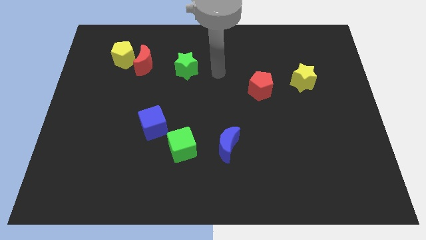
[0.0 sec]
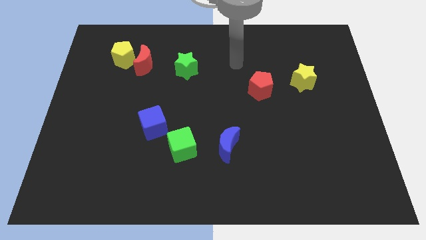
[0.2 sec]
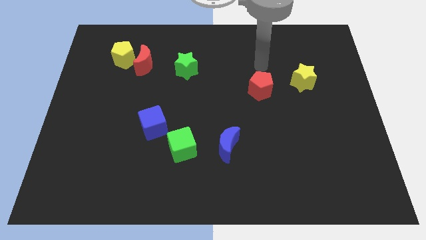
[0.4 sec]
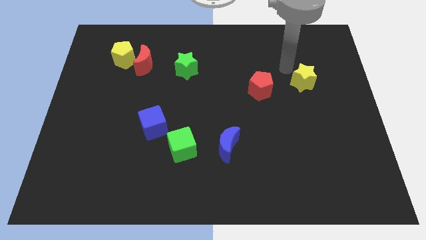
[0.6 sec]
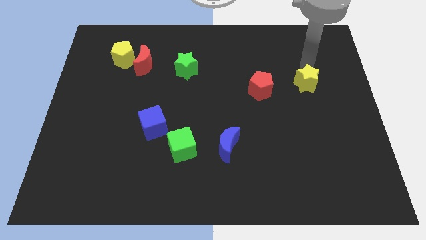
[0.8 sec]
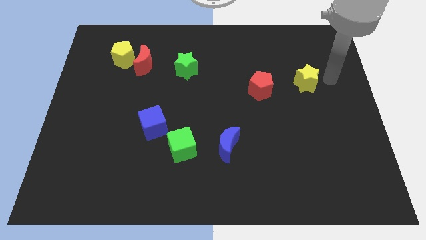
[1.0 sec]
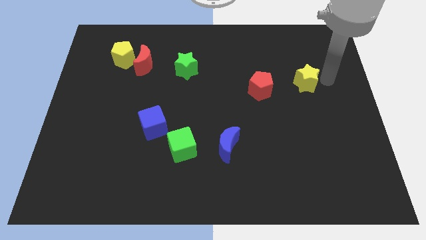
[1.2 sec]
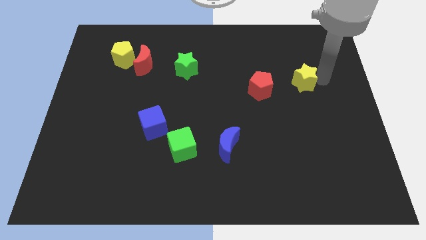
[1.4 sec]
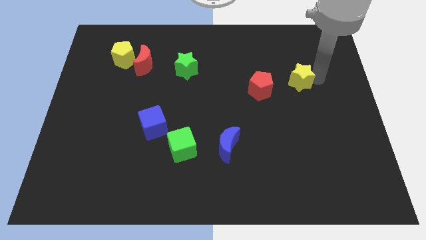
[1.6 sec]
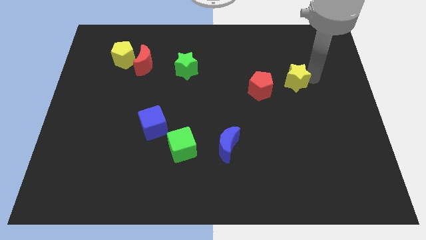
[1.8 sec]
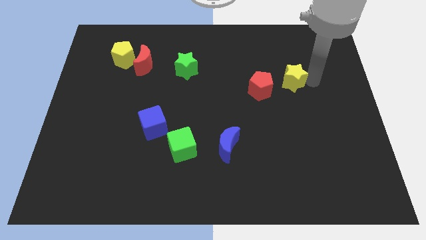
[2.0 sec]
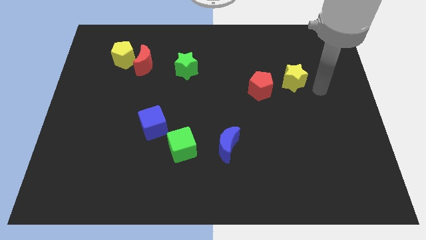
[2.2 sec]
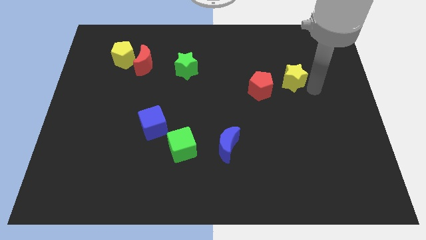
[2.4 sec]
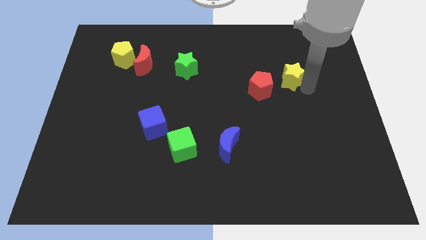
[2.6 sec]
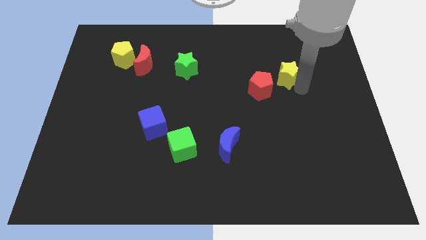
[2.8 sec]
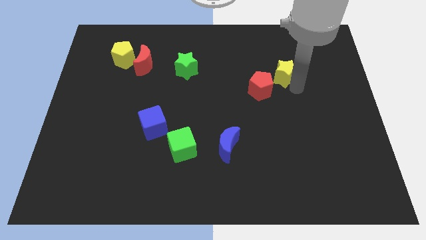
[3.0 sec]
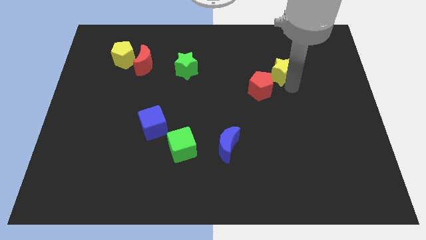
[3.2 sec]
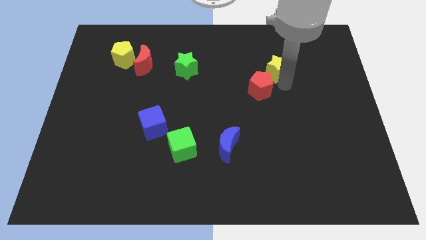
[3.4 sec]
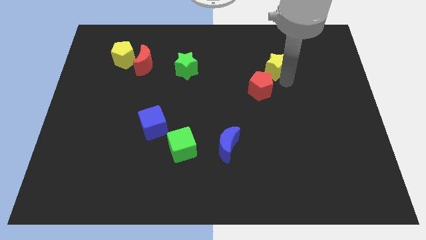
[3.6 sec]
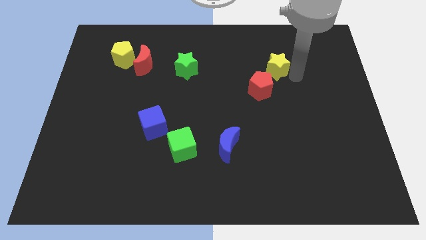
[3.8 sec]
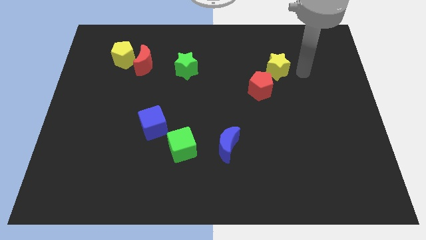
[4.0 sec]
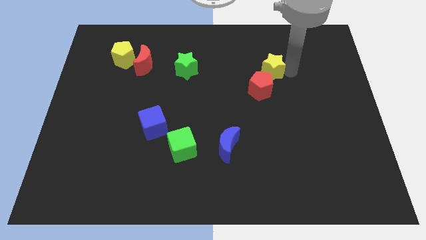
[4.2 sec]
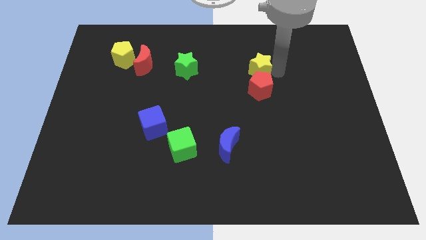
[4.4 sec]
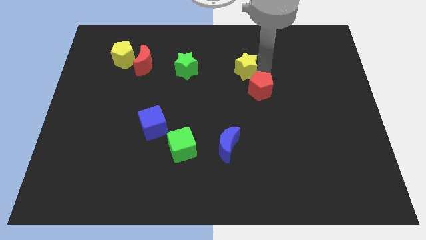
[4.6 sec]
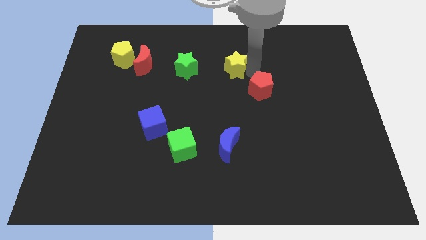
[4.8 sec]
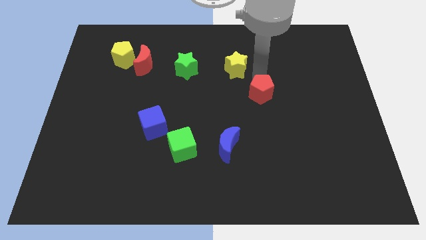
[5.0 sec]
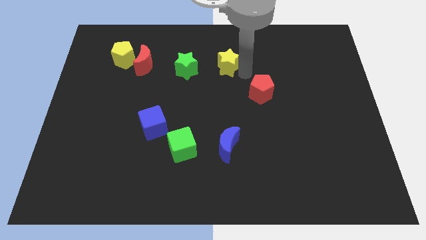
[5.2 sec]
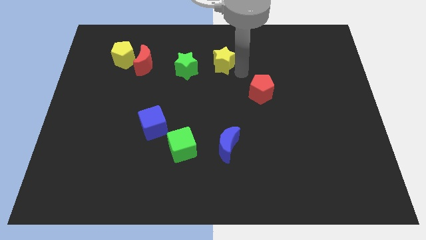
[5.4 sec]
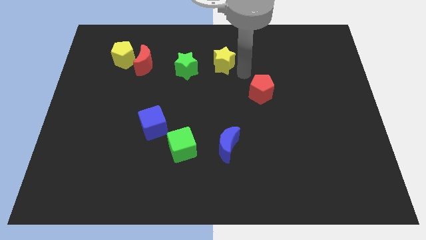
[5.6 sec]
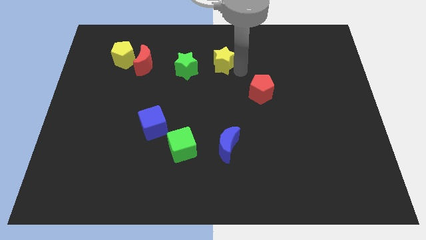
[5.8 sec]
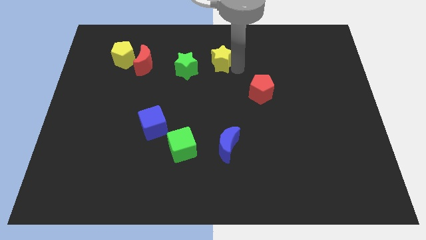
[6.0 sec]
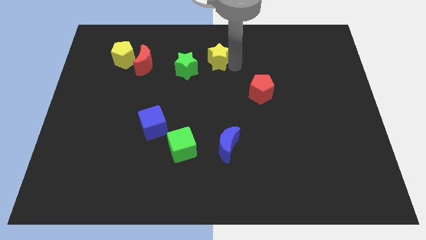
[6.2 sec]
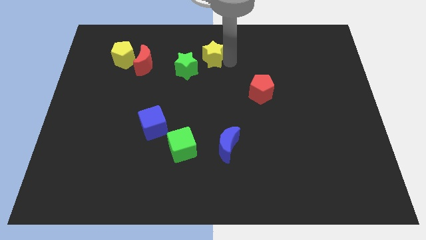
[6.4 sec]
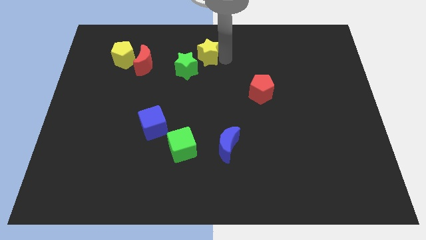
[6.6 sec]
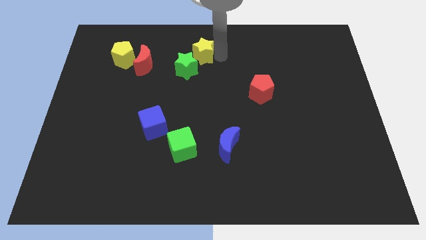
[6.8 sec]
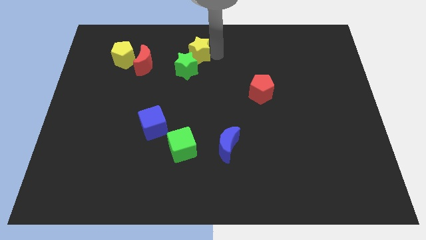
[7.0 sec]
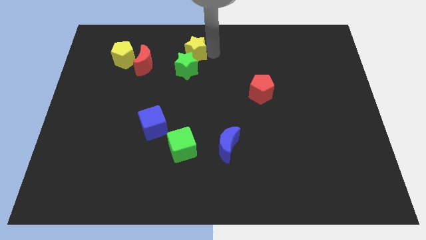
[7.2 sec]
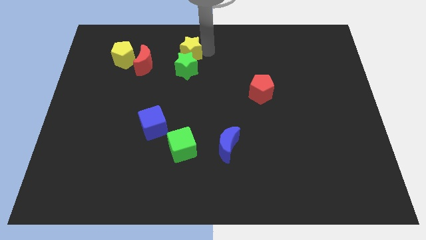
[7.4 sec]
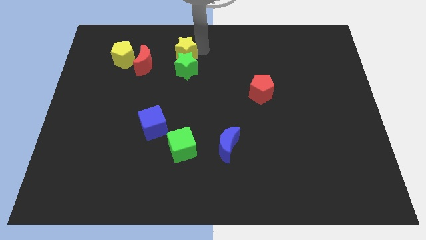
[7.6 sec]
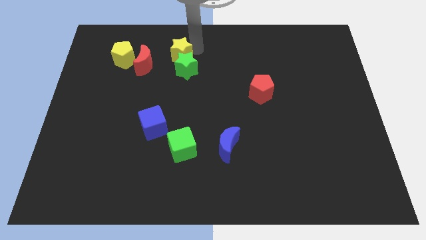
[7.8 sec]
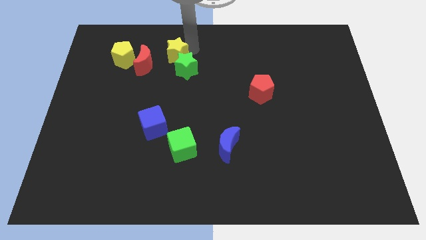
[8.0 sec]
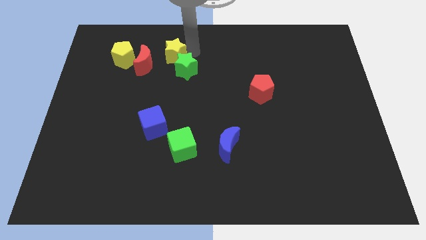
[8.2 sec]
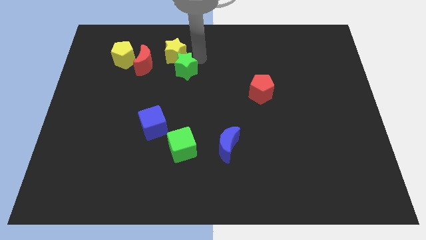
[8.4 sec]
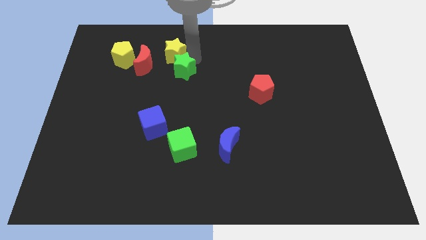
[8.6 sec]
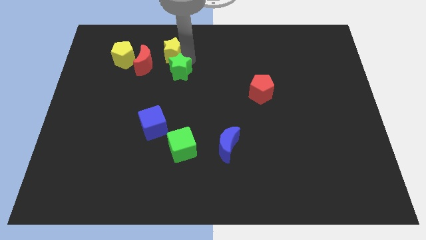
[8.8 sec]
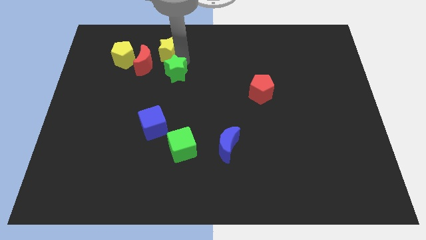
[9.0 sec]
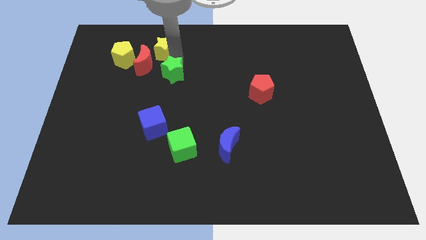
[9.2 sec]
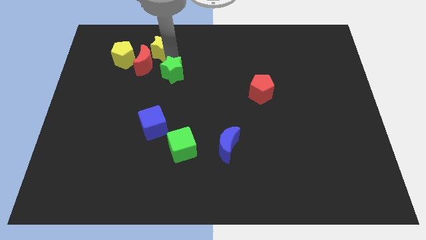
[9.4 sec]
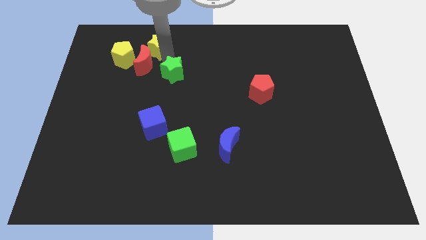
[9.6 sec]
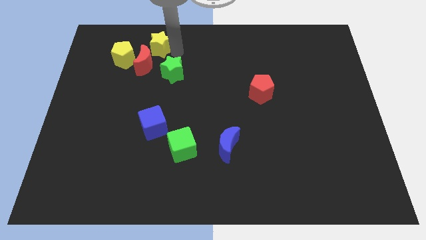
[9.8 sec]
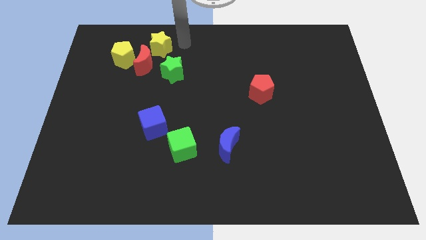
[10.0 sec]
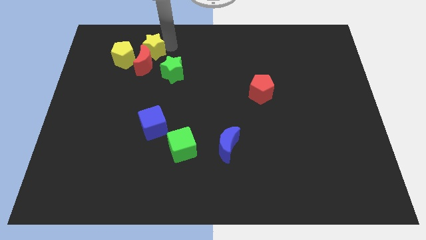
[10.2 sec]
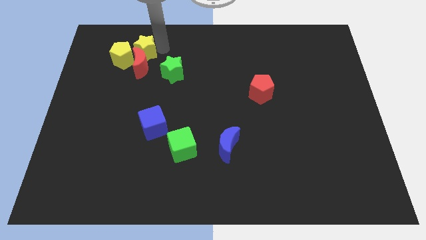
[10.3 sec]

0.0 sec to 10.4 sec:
move the yellow star towards the yellow pentagon
